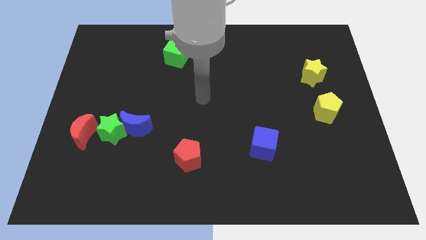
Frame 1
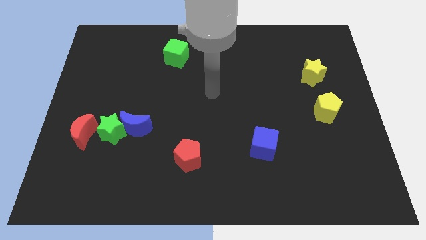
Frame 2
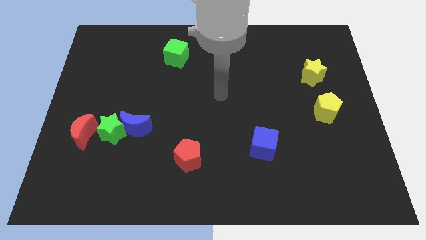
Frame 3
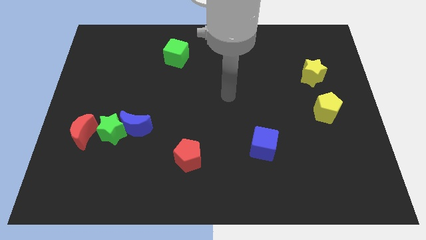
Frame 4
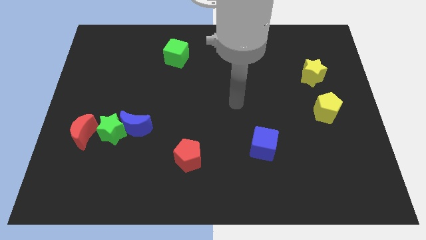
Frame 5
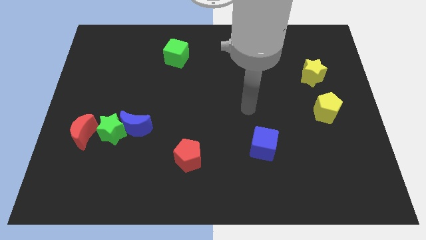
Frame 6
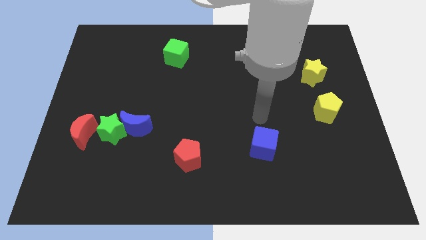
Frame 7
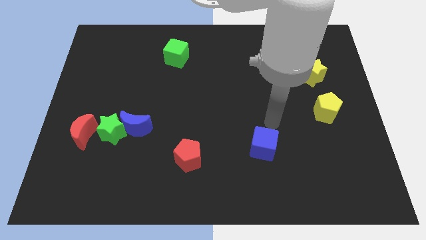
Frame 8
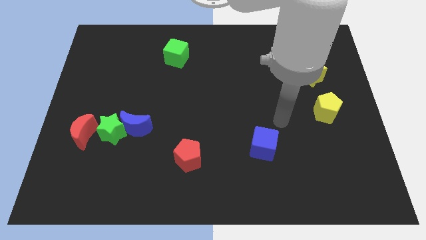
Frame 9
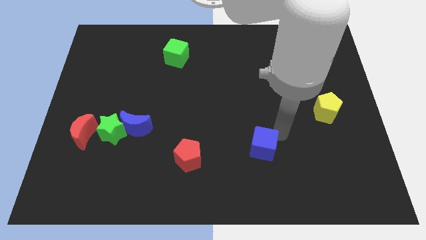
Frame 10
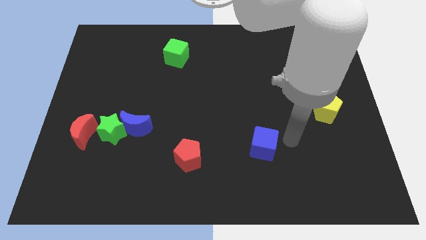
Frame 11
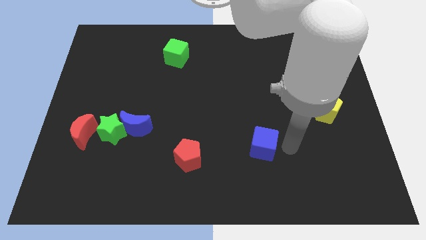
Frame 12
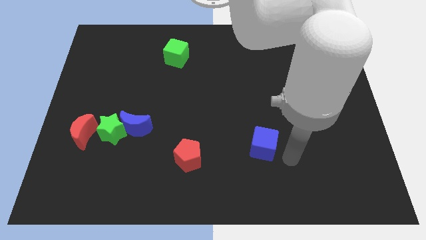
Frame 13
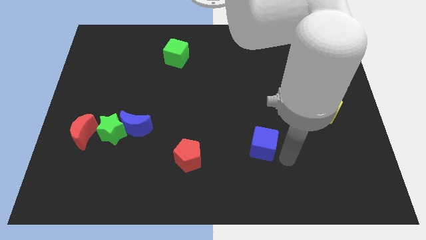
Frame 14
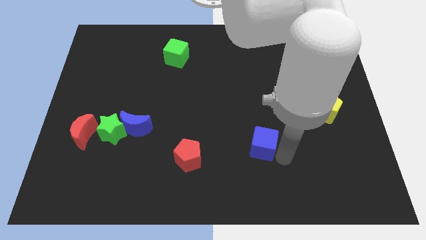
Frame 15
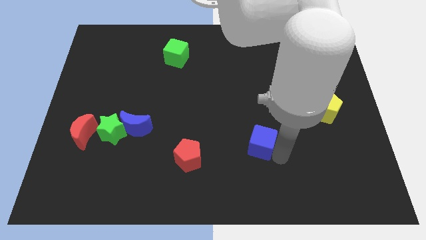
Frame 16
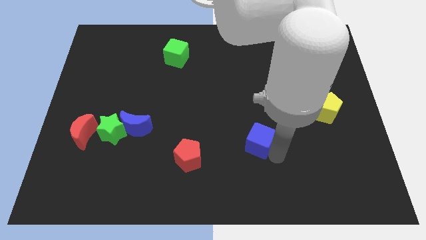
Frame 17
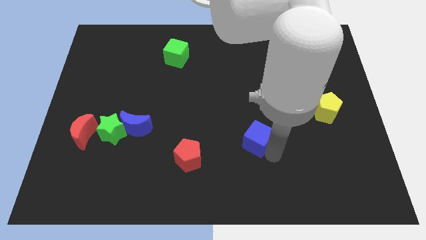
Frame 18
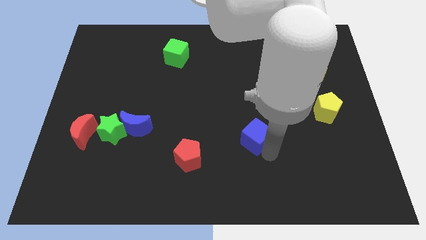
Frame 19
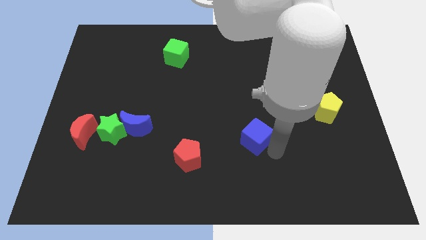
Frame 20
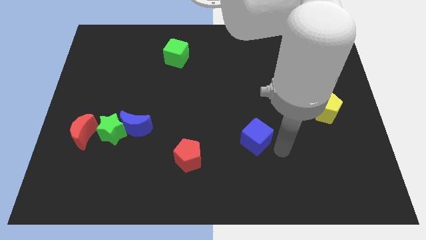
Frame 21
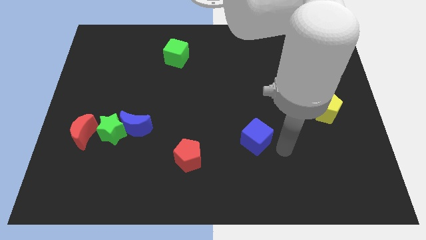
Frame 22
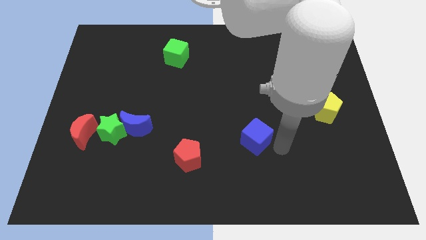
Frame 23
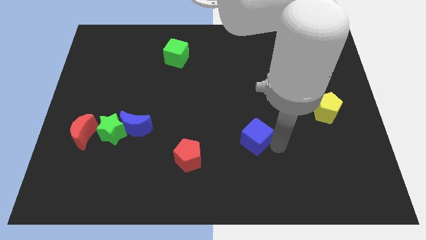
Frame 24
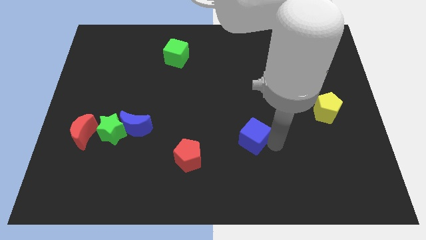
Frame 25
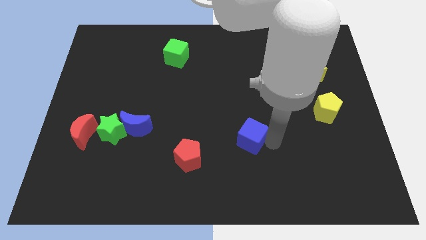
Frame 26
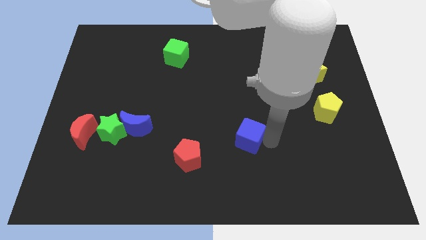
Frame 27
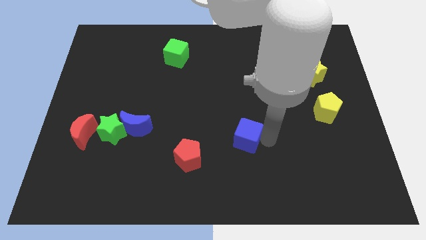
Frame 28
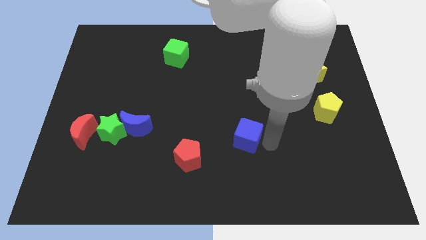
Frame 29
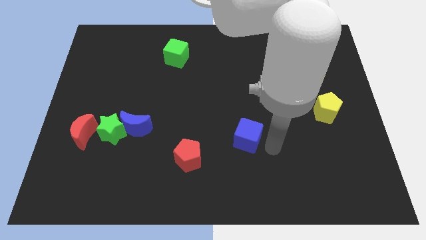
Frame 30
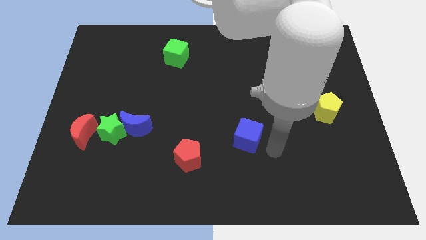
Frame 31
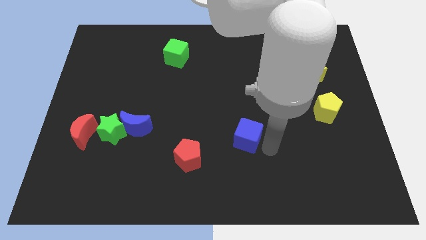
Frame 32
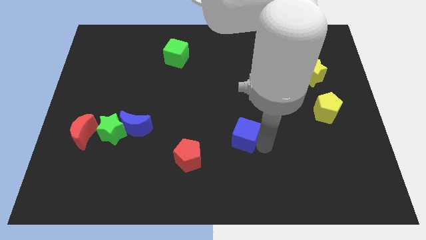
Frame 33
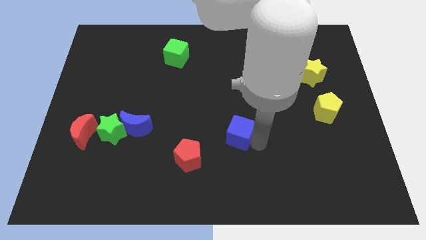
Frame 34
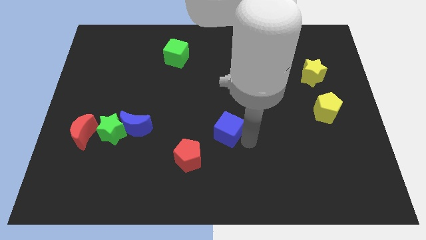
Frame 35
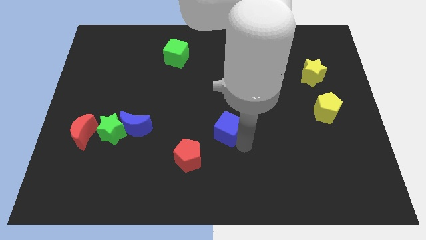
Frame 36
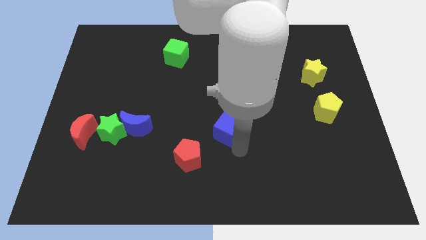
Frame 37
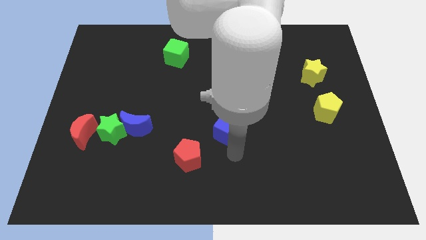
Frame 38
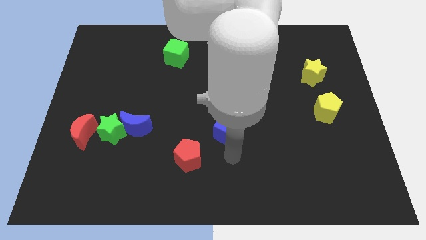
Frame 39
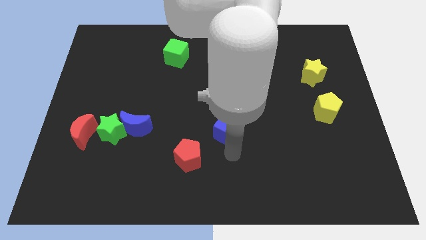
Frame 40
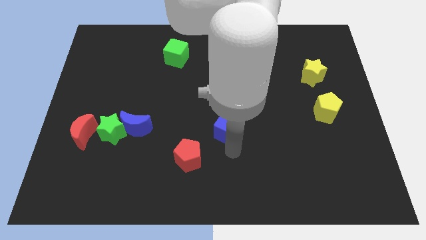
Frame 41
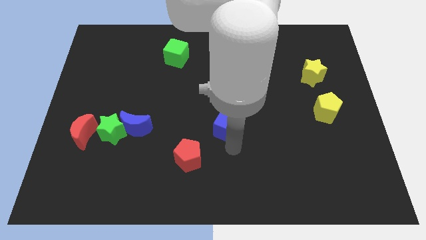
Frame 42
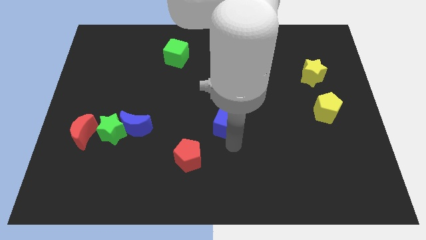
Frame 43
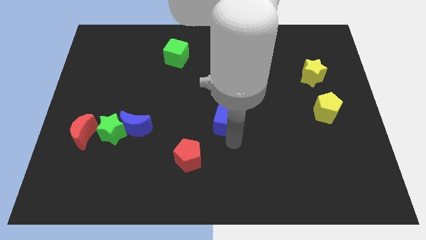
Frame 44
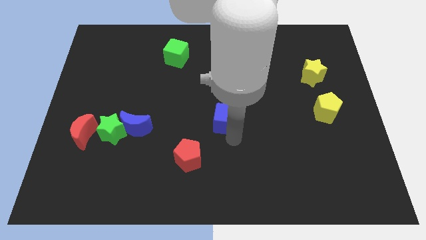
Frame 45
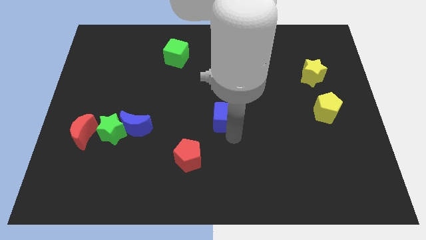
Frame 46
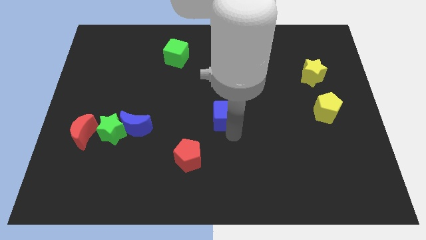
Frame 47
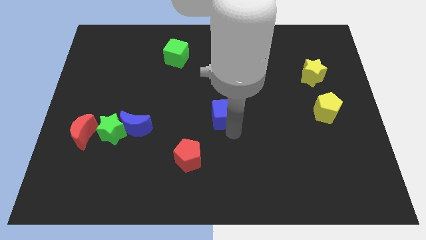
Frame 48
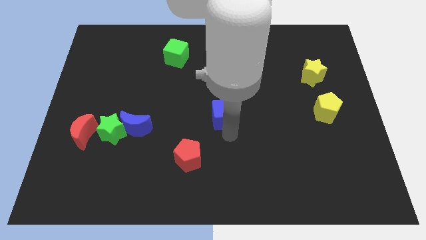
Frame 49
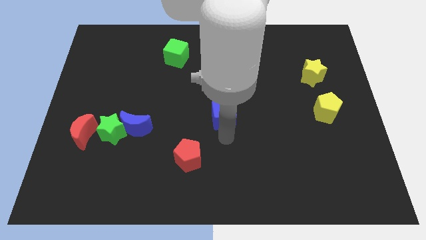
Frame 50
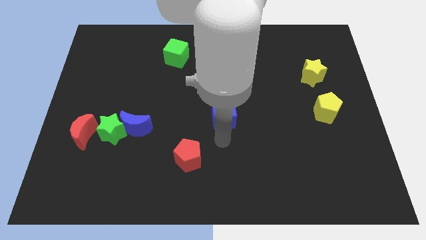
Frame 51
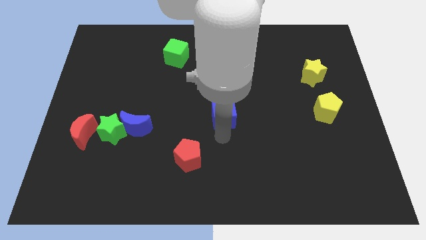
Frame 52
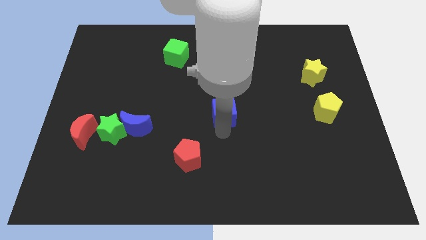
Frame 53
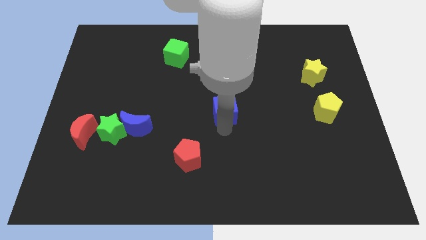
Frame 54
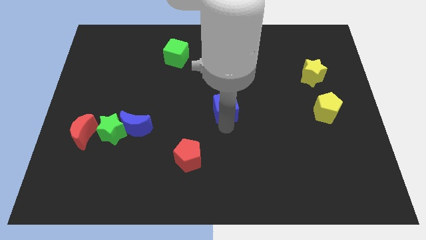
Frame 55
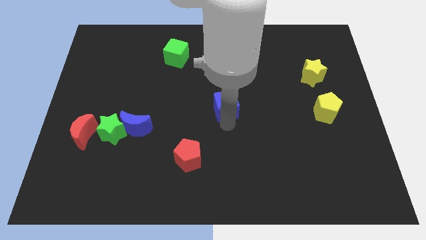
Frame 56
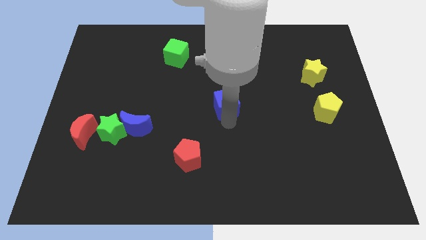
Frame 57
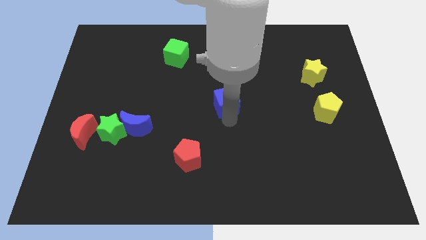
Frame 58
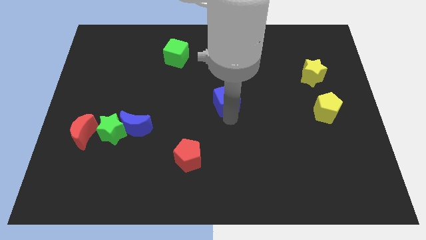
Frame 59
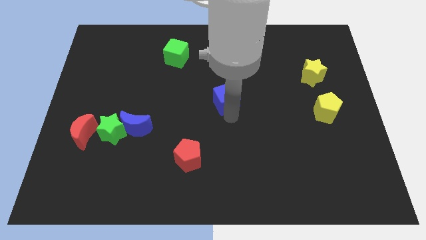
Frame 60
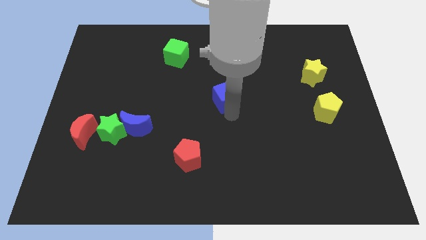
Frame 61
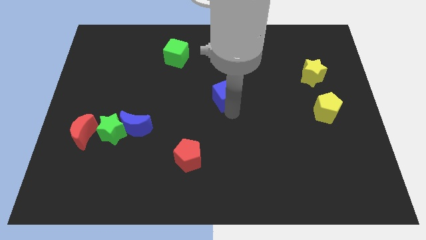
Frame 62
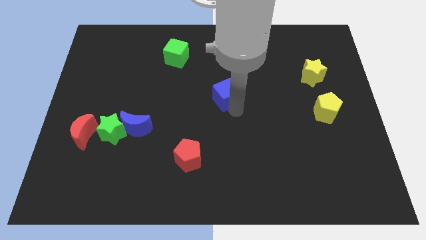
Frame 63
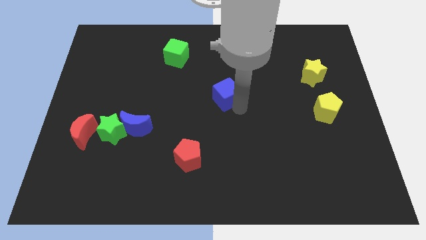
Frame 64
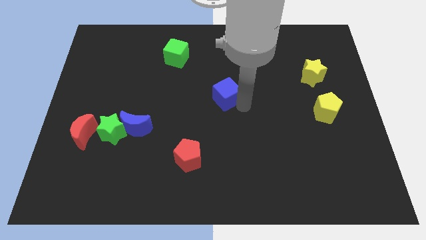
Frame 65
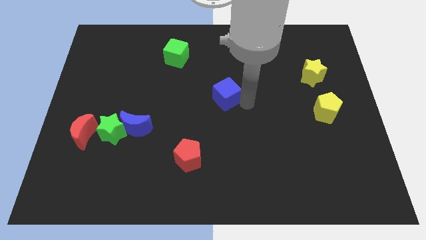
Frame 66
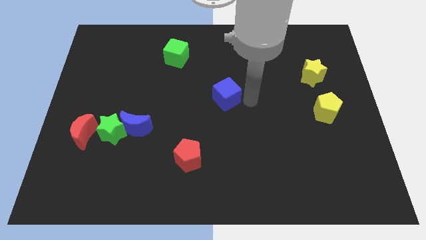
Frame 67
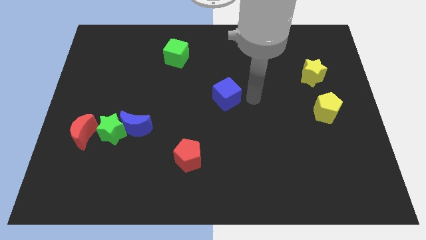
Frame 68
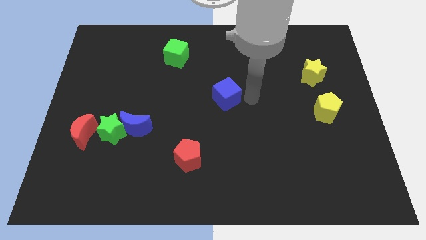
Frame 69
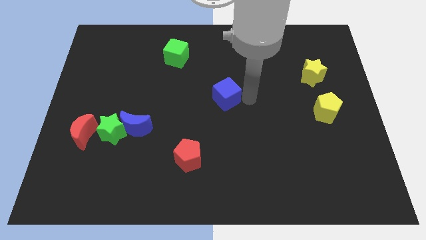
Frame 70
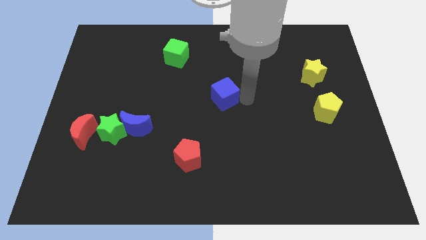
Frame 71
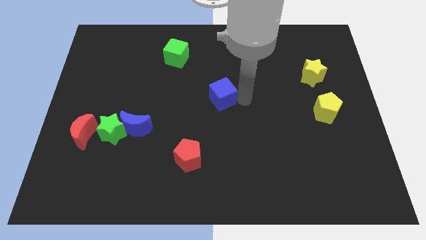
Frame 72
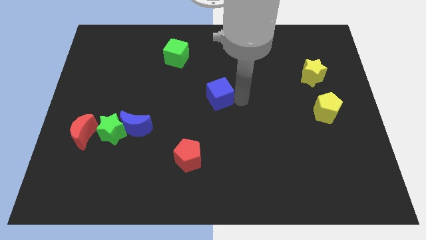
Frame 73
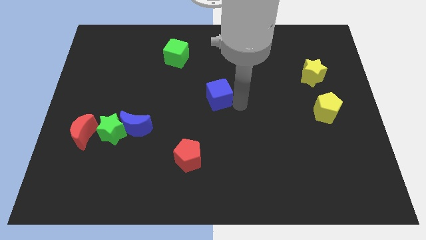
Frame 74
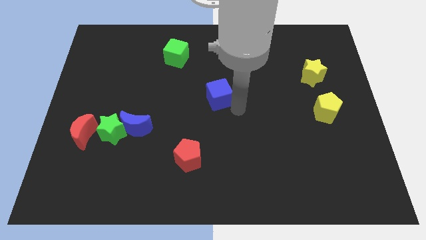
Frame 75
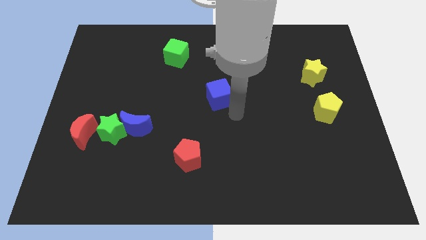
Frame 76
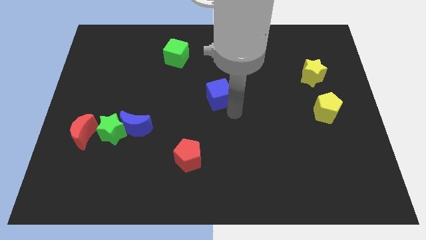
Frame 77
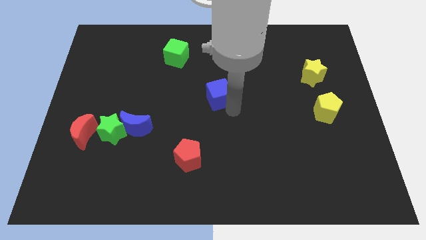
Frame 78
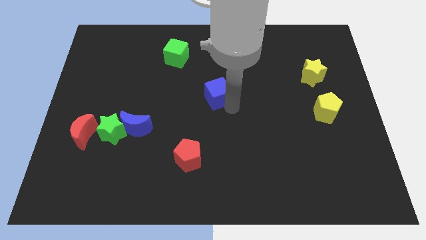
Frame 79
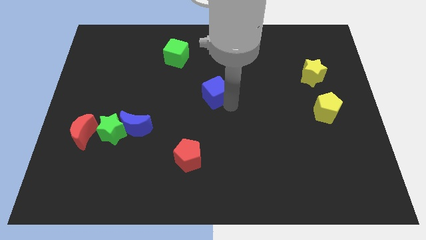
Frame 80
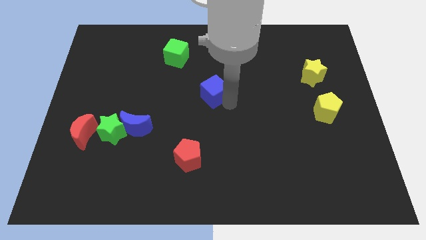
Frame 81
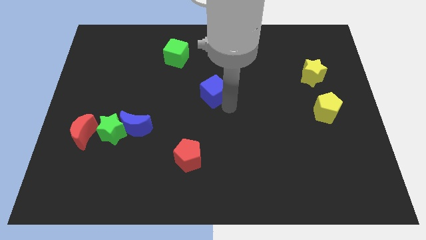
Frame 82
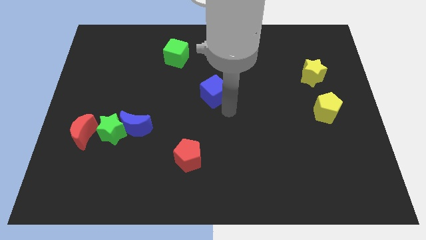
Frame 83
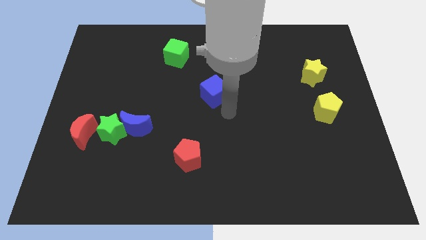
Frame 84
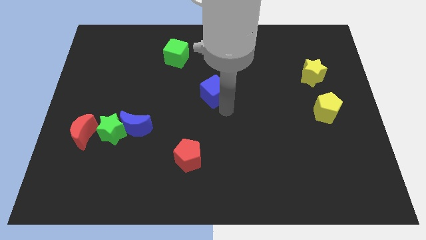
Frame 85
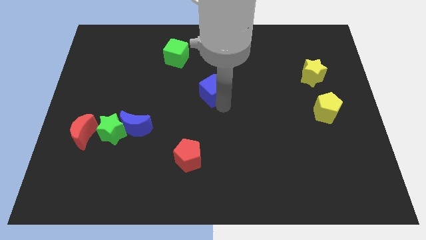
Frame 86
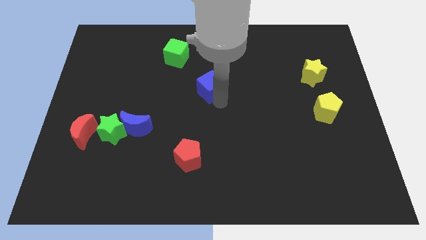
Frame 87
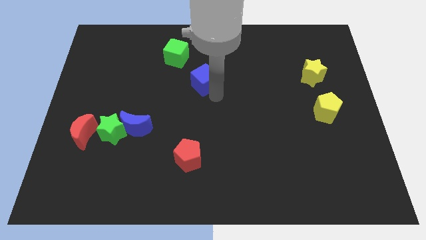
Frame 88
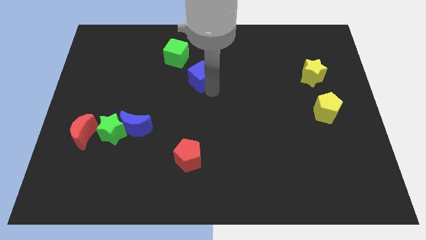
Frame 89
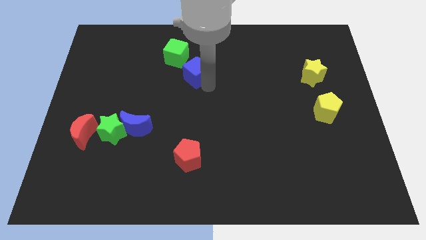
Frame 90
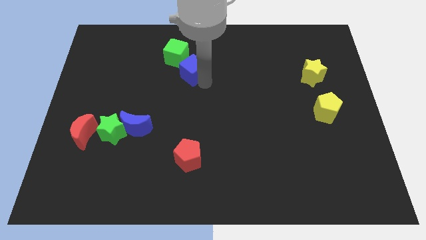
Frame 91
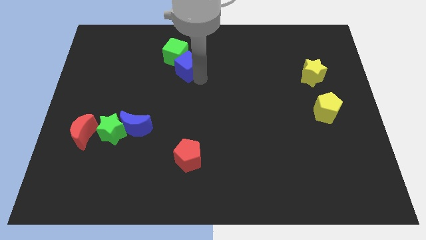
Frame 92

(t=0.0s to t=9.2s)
move the blue cube to the green cube
